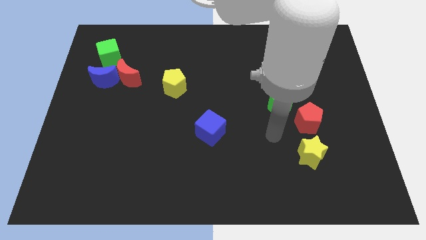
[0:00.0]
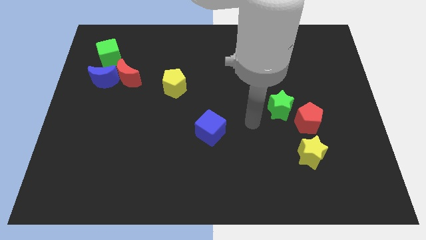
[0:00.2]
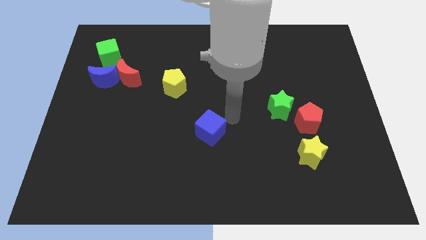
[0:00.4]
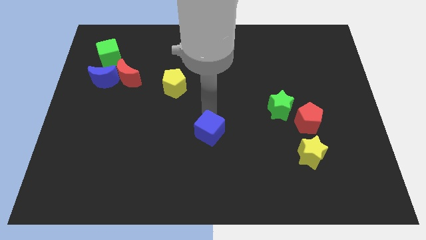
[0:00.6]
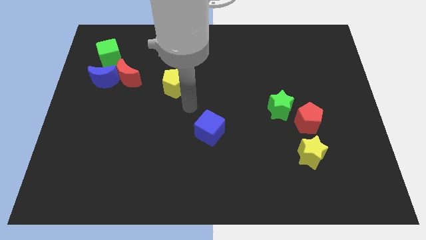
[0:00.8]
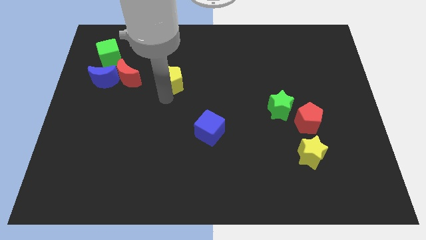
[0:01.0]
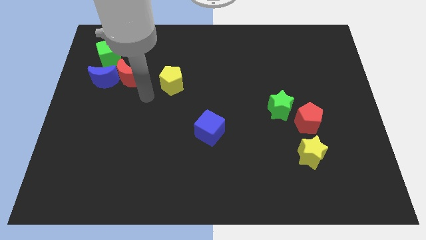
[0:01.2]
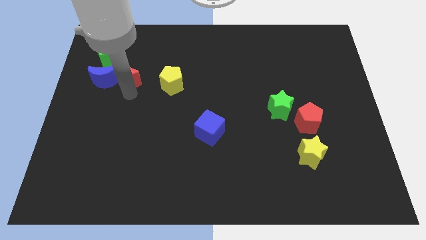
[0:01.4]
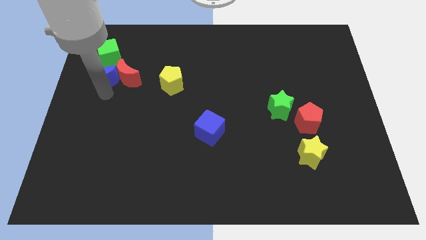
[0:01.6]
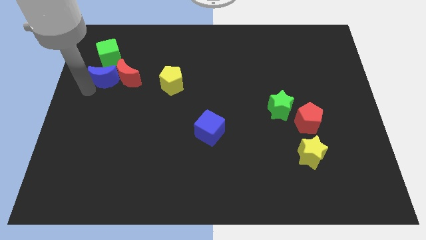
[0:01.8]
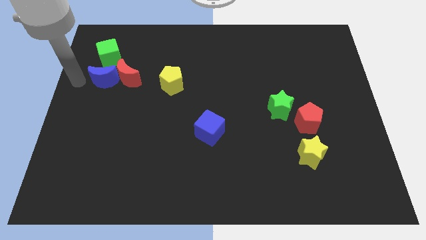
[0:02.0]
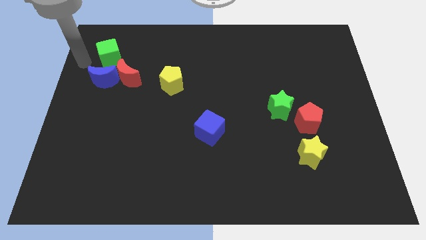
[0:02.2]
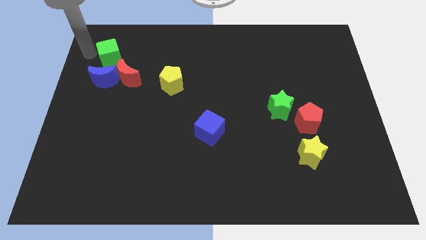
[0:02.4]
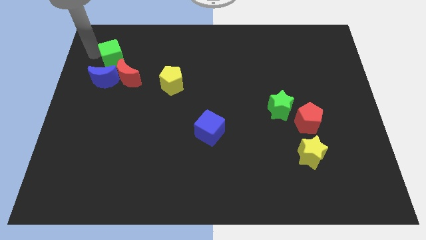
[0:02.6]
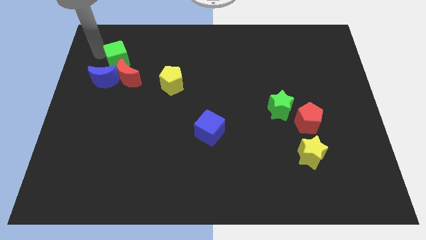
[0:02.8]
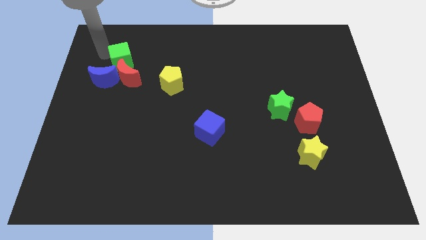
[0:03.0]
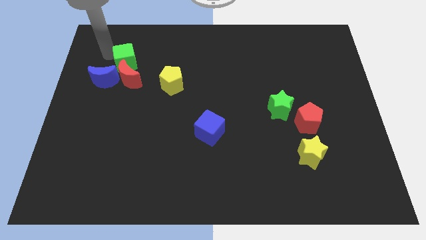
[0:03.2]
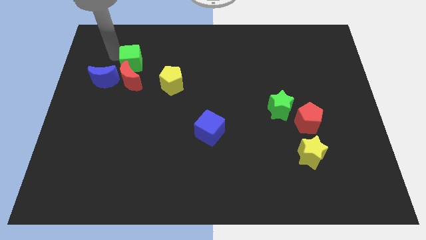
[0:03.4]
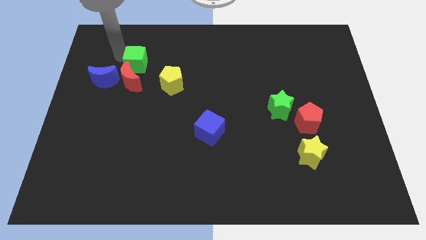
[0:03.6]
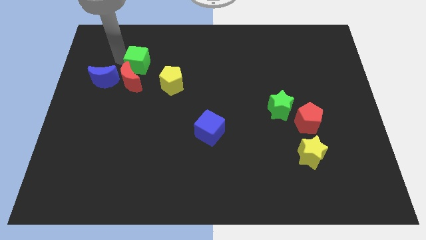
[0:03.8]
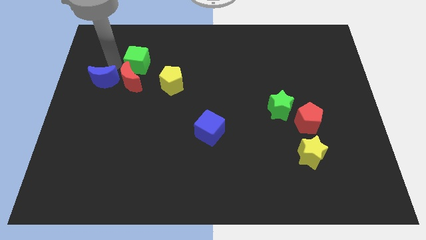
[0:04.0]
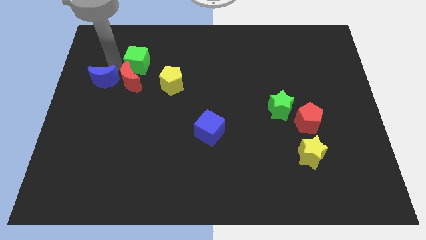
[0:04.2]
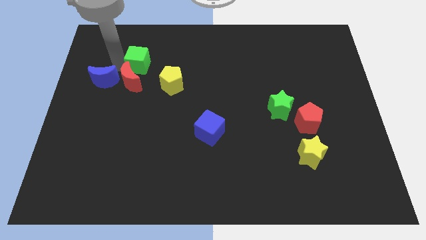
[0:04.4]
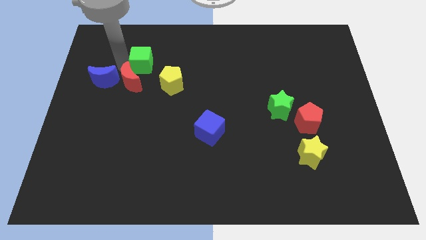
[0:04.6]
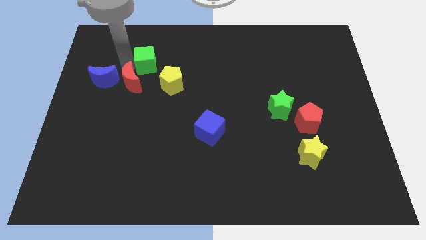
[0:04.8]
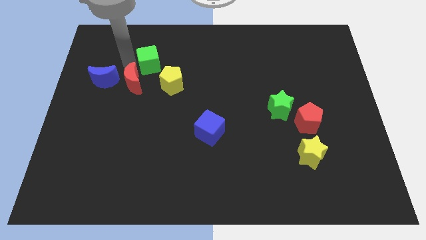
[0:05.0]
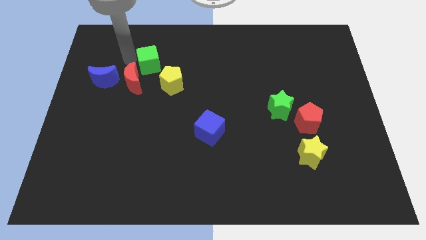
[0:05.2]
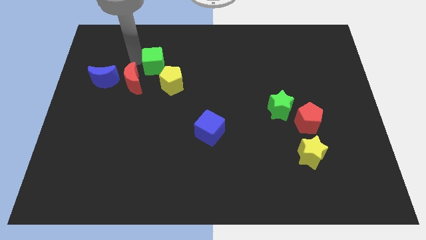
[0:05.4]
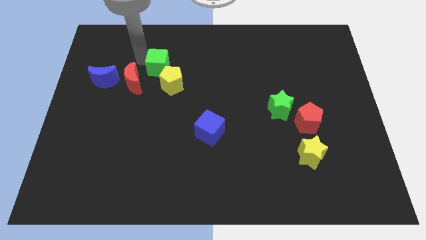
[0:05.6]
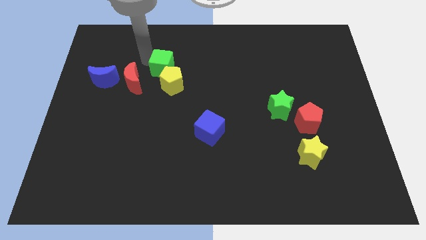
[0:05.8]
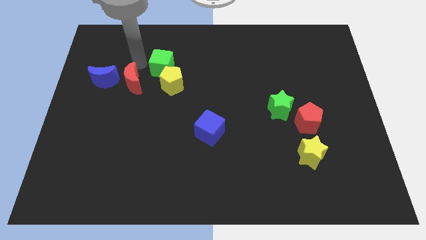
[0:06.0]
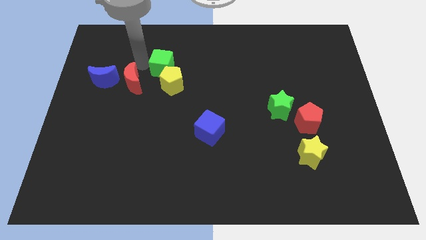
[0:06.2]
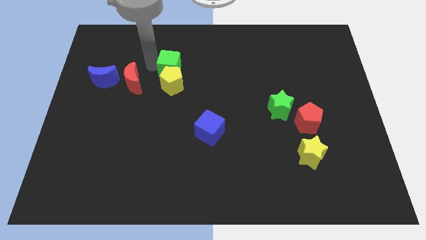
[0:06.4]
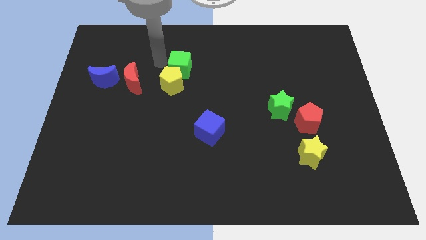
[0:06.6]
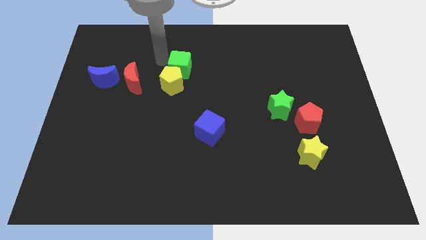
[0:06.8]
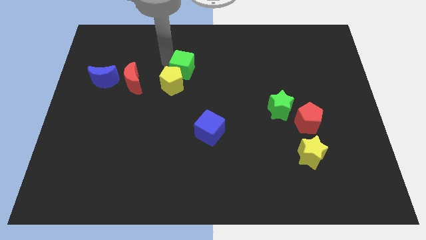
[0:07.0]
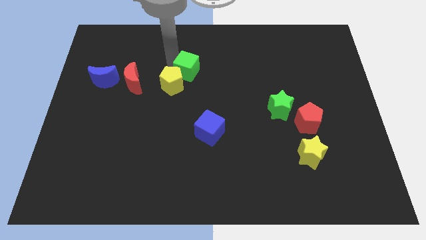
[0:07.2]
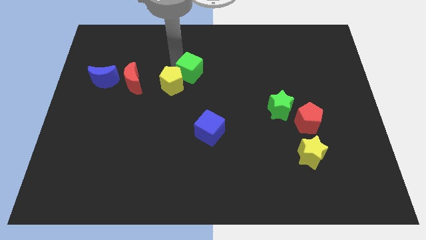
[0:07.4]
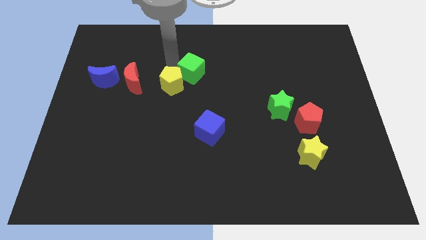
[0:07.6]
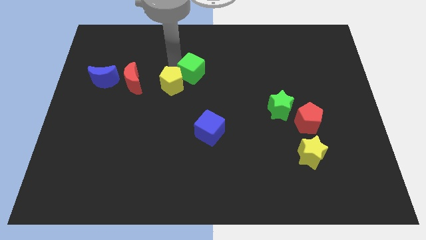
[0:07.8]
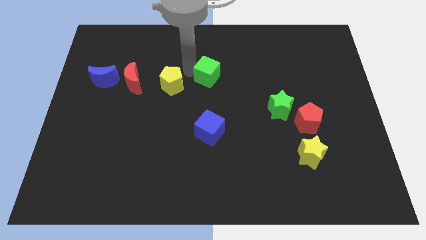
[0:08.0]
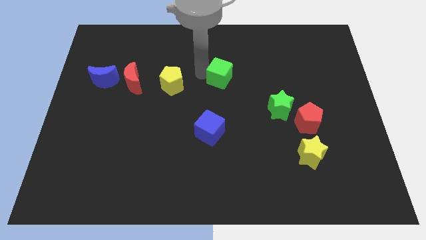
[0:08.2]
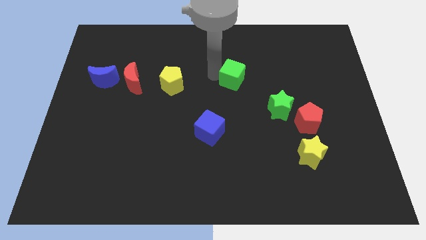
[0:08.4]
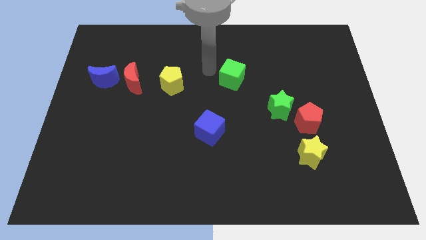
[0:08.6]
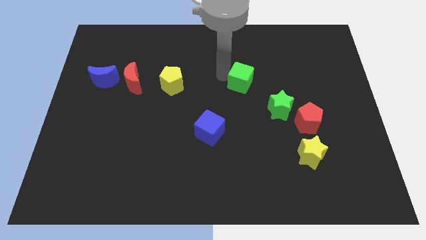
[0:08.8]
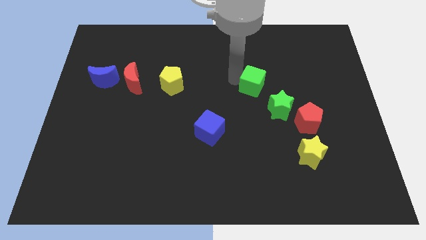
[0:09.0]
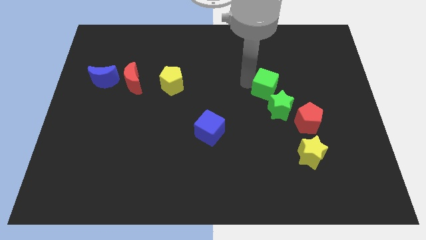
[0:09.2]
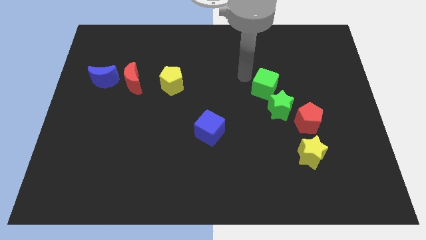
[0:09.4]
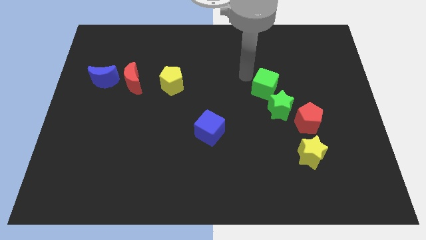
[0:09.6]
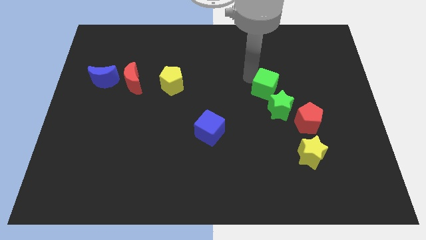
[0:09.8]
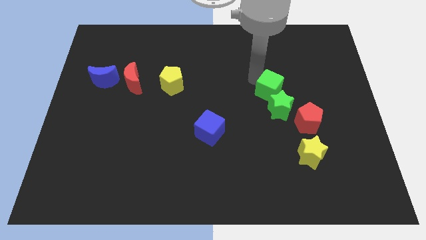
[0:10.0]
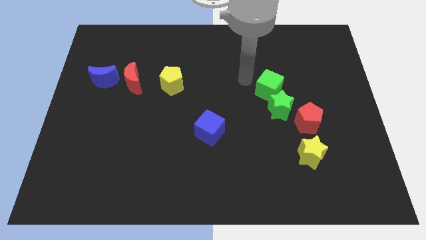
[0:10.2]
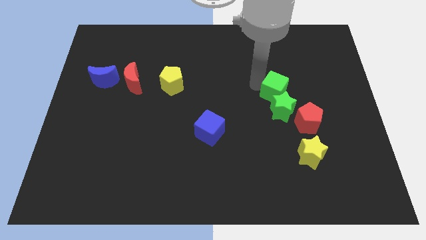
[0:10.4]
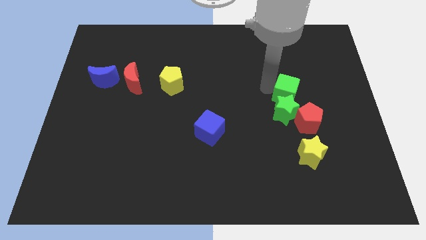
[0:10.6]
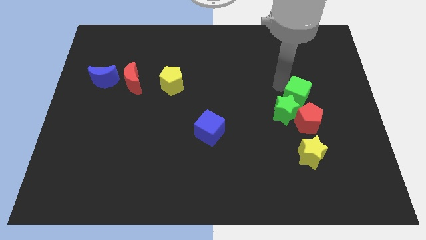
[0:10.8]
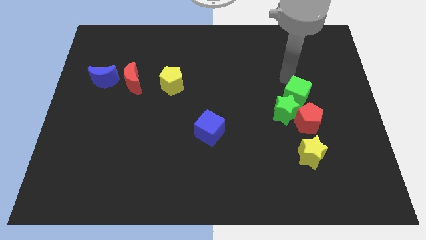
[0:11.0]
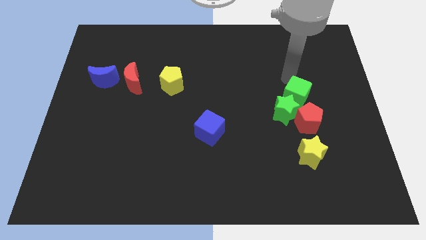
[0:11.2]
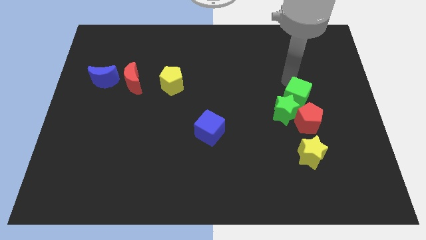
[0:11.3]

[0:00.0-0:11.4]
slide the green cube to the top side of the yellow star

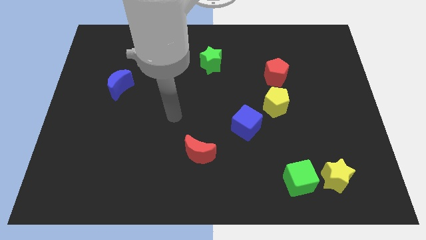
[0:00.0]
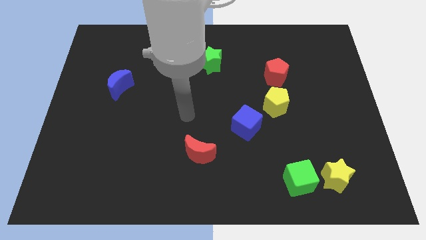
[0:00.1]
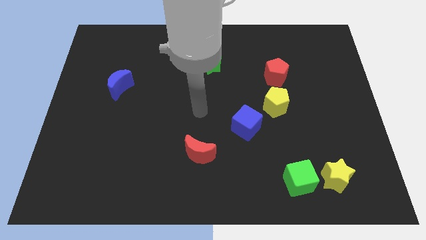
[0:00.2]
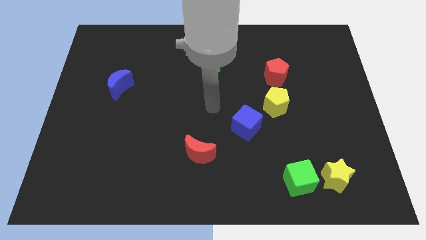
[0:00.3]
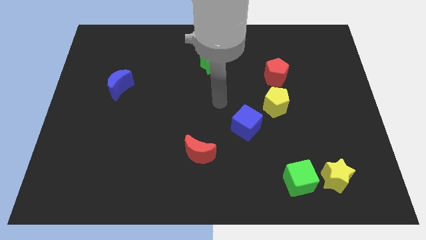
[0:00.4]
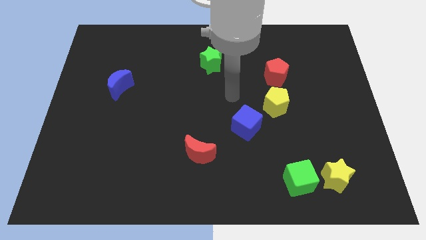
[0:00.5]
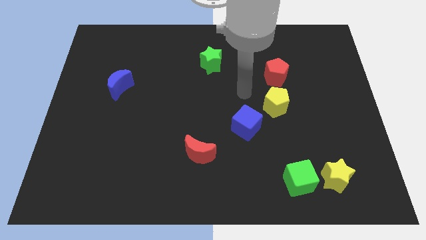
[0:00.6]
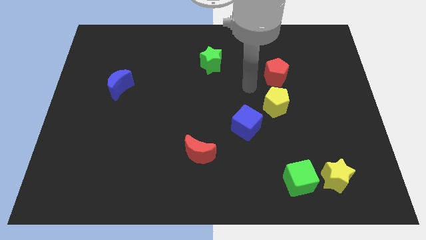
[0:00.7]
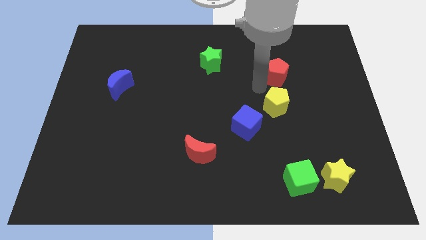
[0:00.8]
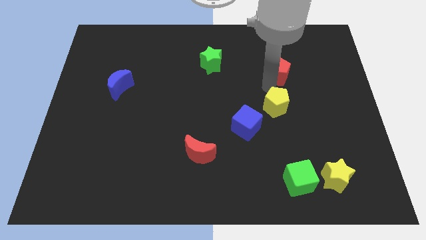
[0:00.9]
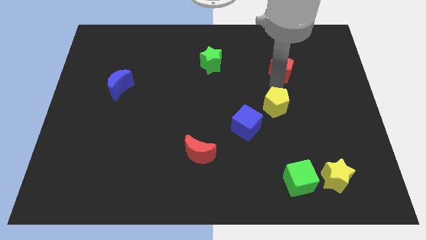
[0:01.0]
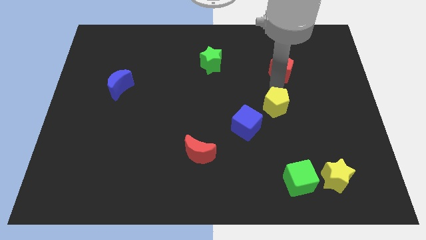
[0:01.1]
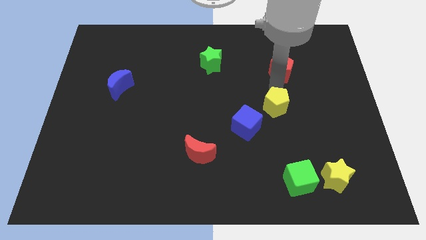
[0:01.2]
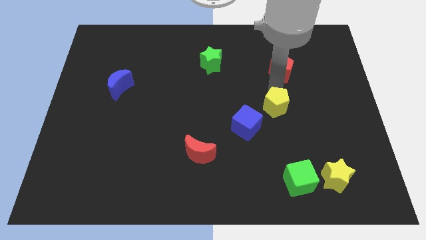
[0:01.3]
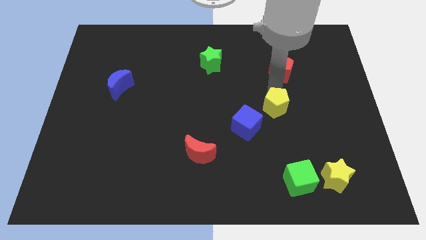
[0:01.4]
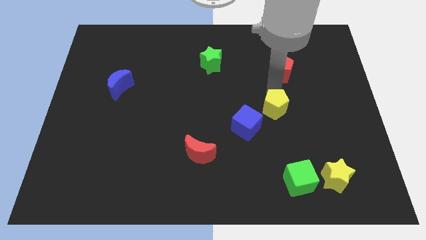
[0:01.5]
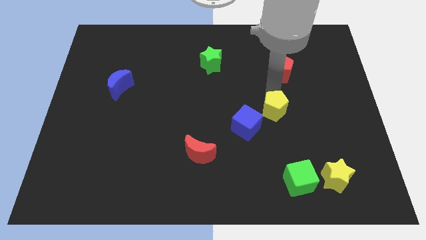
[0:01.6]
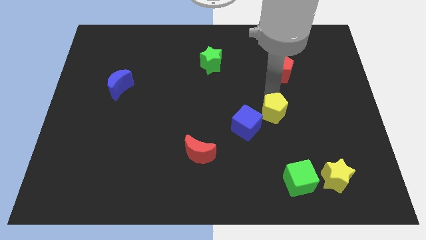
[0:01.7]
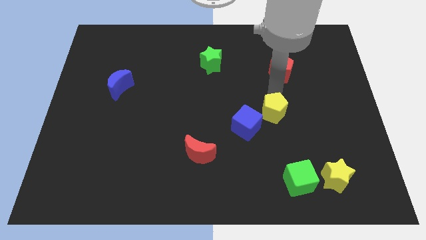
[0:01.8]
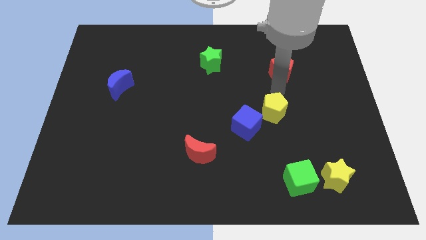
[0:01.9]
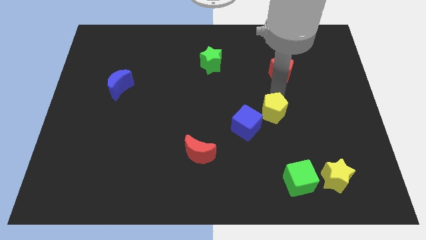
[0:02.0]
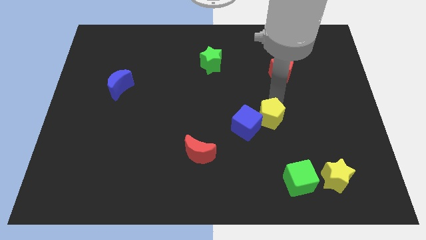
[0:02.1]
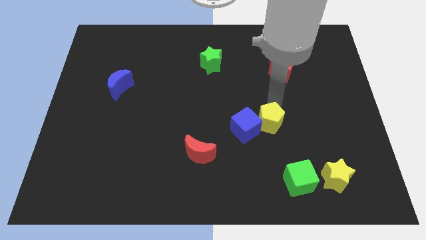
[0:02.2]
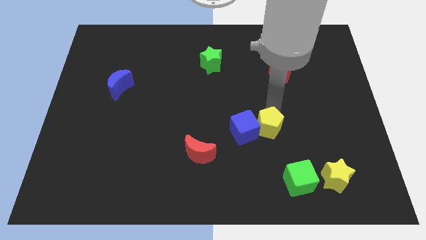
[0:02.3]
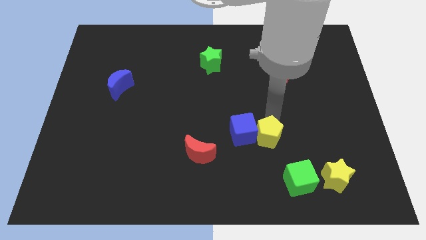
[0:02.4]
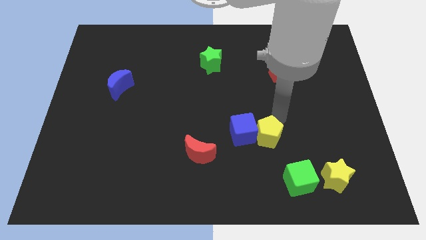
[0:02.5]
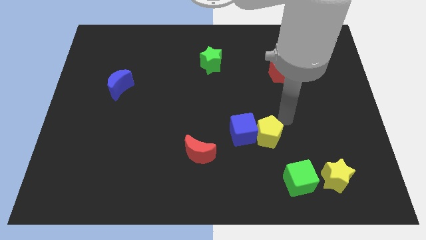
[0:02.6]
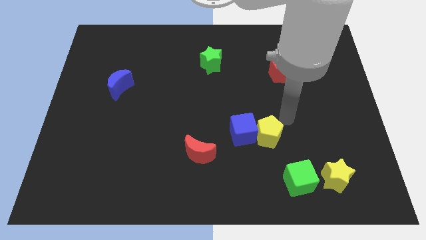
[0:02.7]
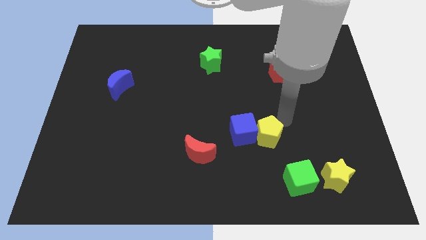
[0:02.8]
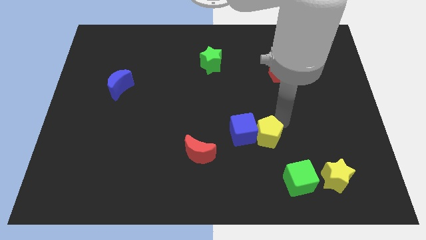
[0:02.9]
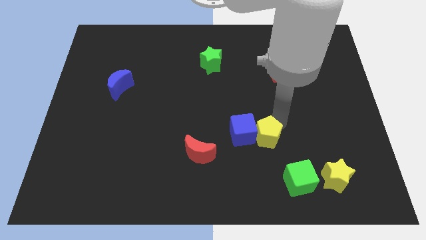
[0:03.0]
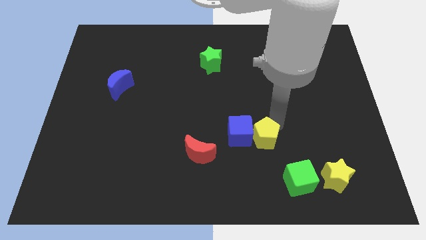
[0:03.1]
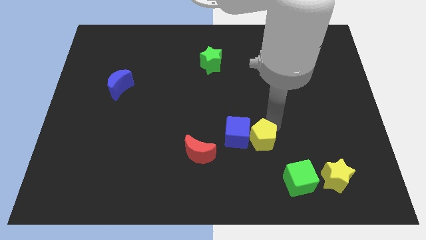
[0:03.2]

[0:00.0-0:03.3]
put the yellow pentagon right of the red moon
